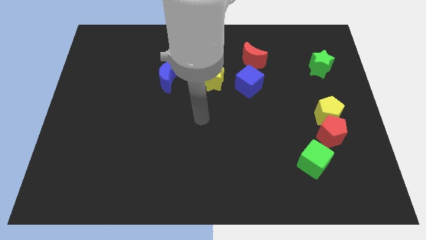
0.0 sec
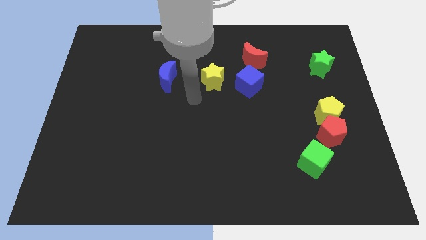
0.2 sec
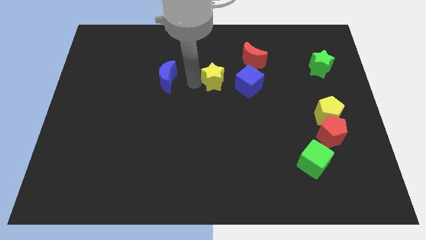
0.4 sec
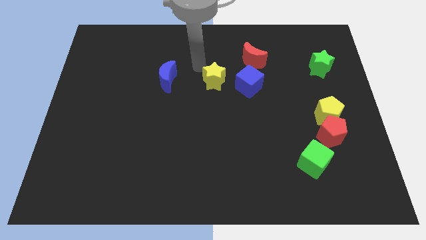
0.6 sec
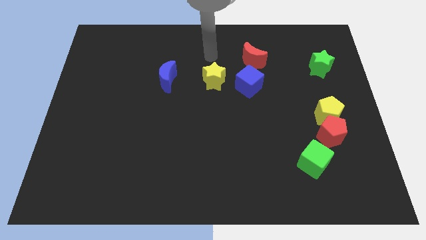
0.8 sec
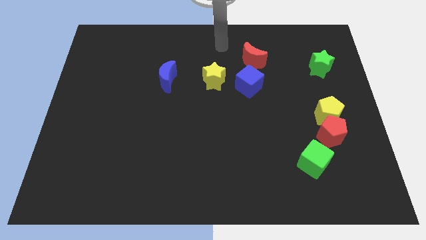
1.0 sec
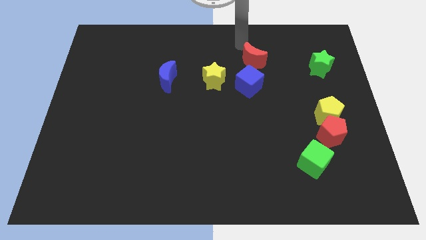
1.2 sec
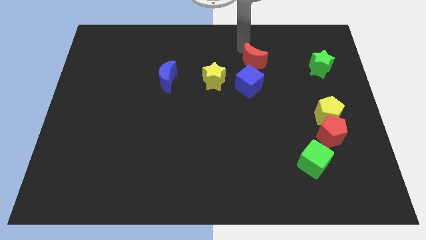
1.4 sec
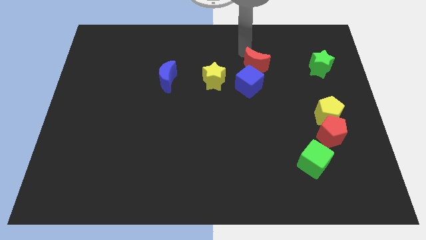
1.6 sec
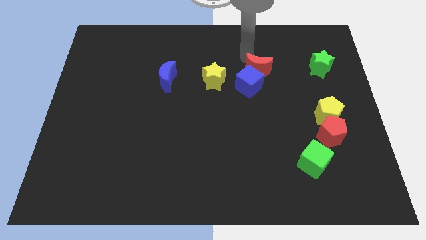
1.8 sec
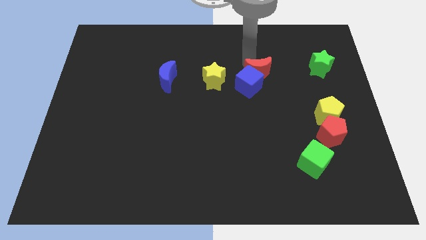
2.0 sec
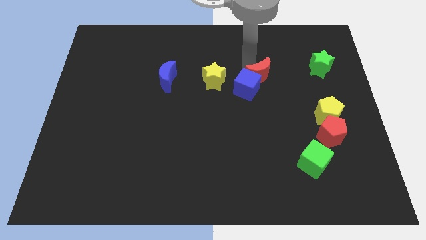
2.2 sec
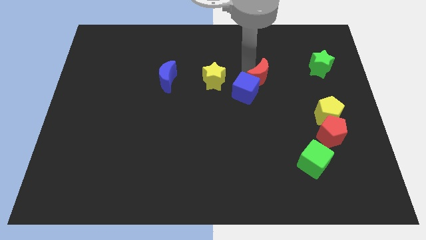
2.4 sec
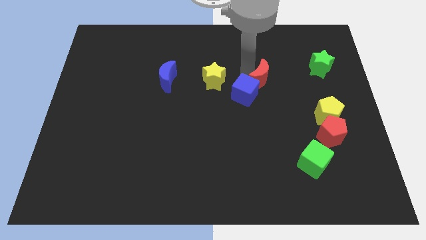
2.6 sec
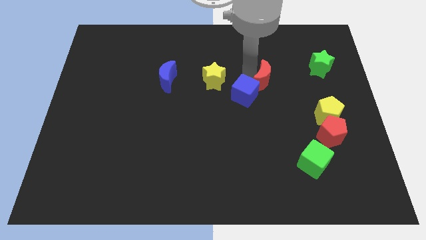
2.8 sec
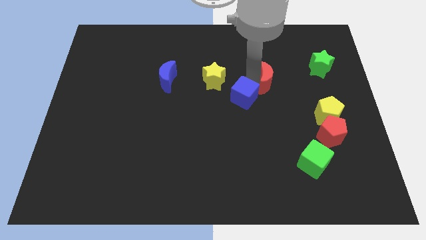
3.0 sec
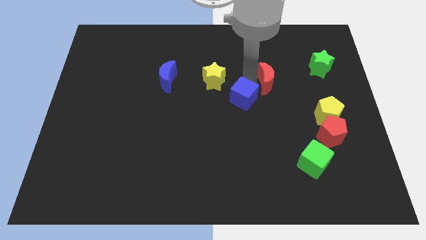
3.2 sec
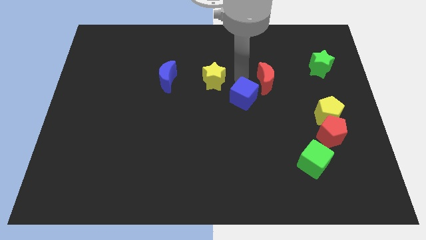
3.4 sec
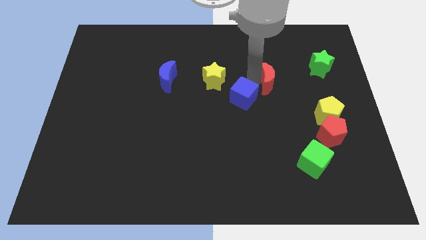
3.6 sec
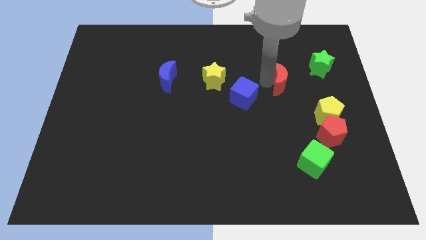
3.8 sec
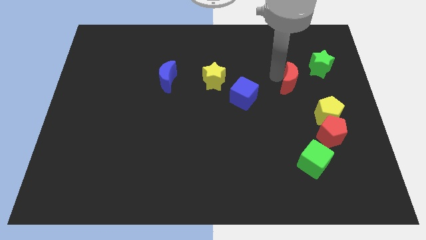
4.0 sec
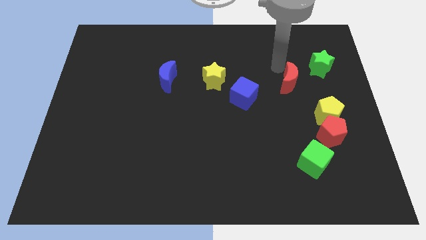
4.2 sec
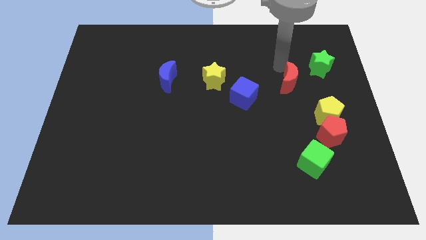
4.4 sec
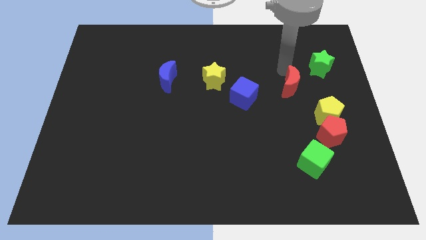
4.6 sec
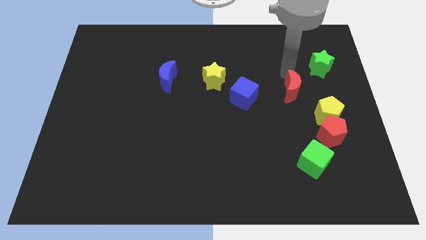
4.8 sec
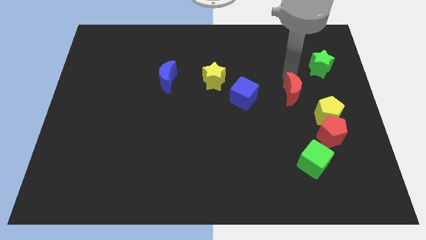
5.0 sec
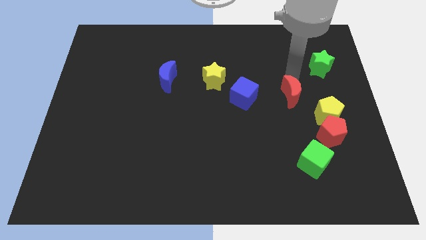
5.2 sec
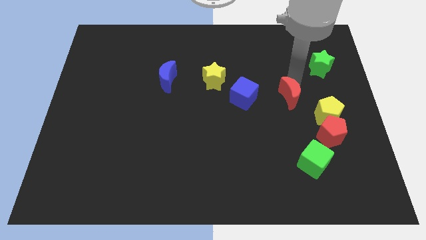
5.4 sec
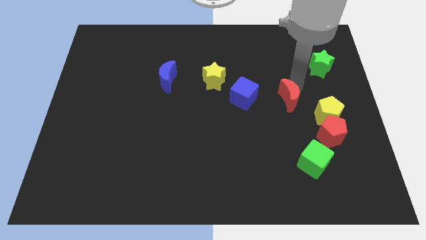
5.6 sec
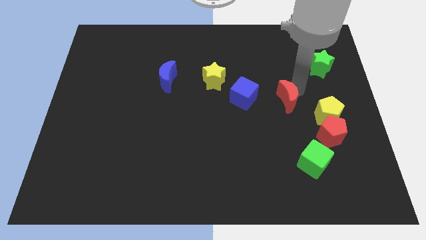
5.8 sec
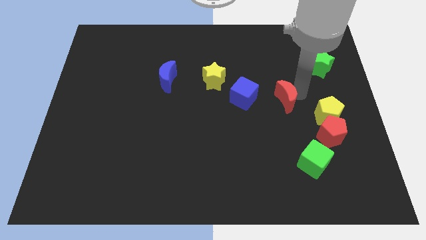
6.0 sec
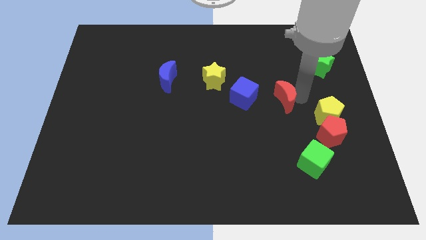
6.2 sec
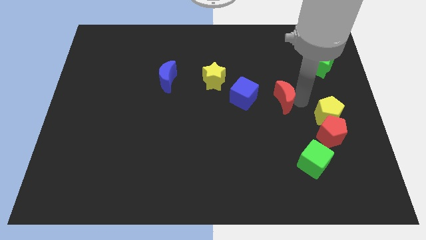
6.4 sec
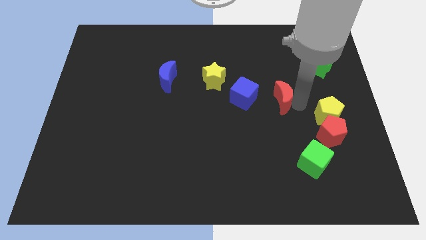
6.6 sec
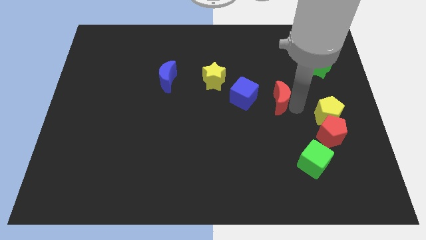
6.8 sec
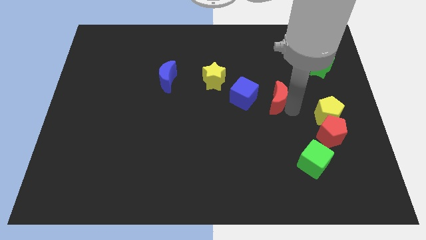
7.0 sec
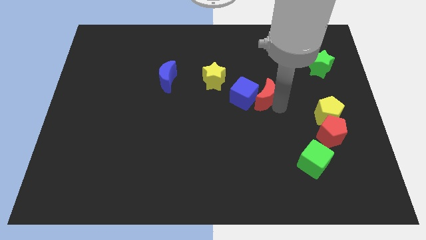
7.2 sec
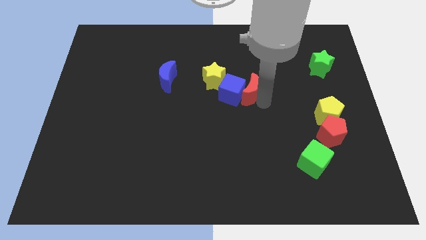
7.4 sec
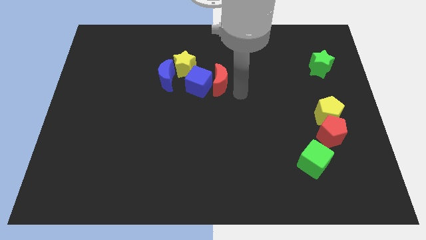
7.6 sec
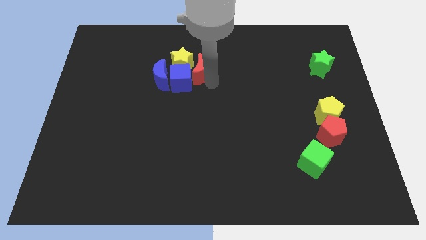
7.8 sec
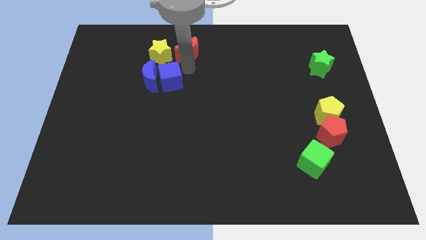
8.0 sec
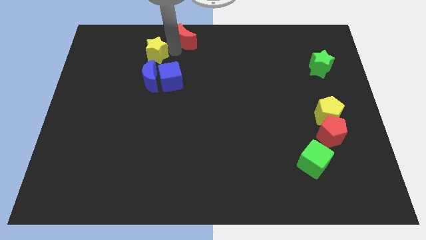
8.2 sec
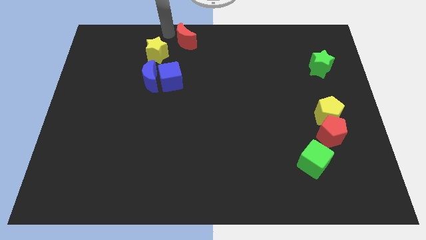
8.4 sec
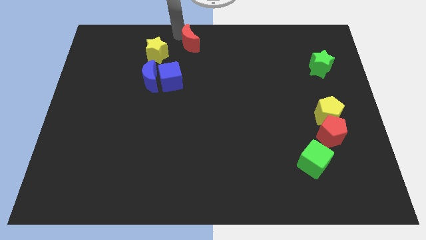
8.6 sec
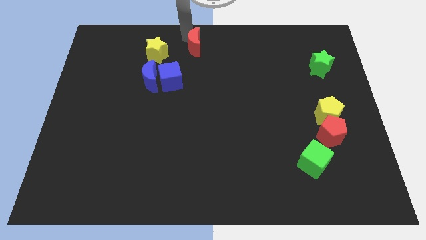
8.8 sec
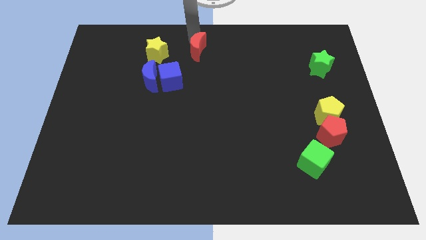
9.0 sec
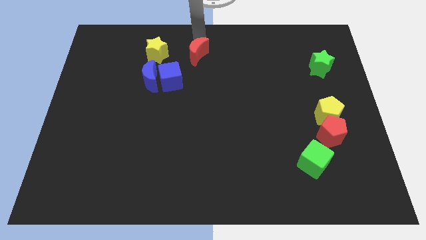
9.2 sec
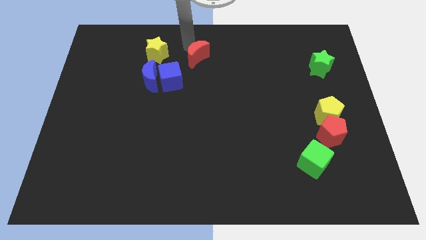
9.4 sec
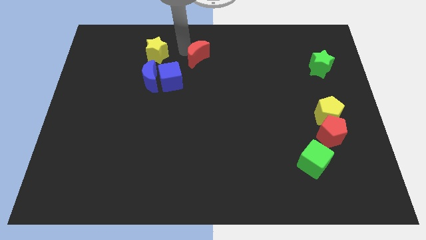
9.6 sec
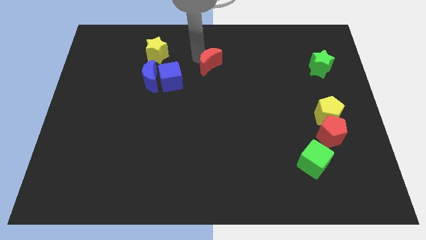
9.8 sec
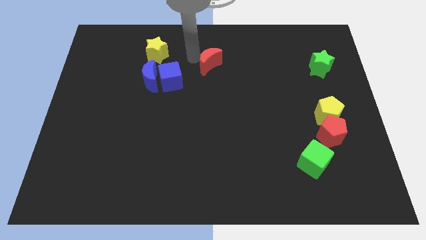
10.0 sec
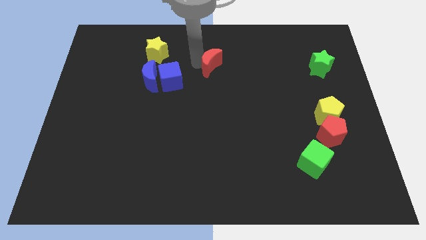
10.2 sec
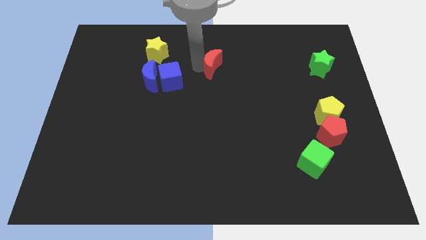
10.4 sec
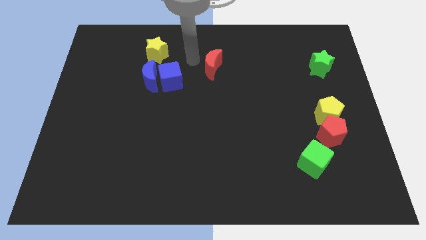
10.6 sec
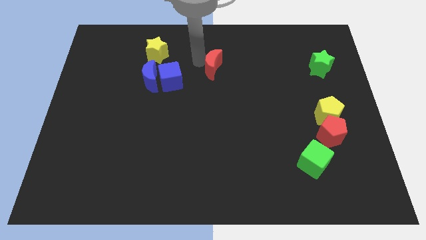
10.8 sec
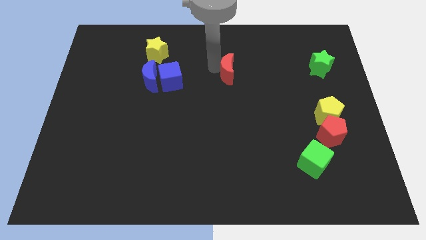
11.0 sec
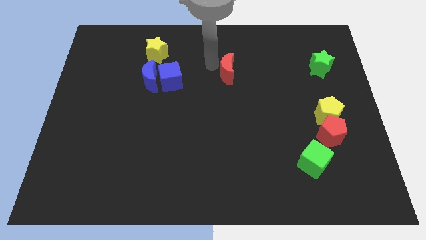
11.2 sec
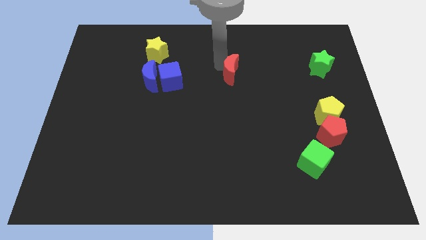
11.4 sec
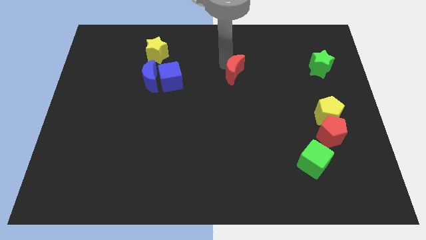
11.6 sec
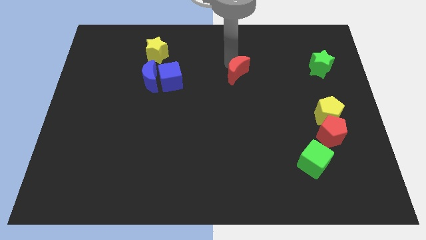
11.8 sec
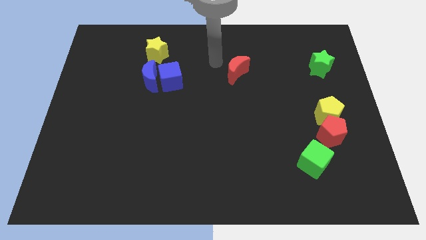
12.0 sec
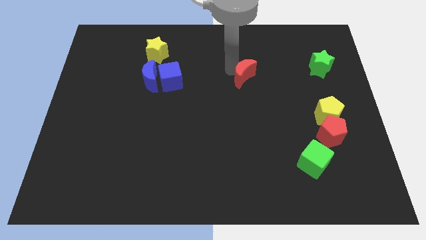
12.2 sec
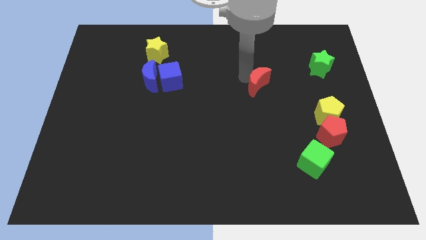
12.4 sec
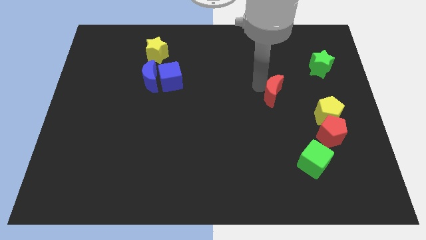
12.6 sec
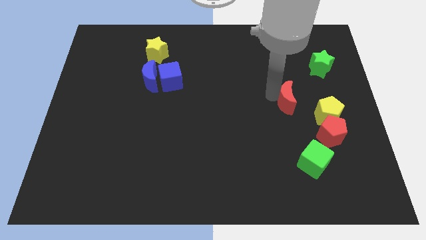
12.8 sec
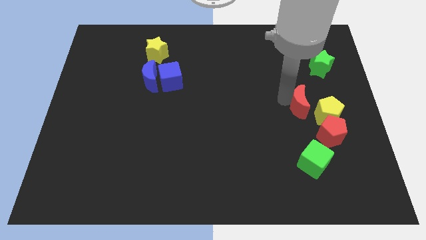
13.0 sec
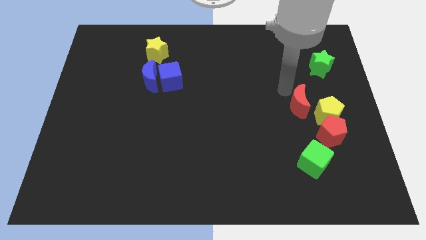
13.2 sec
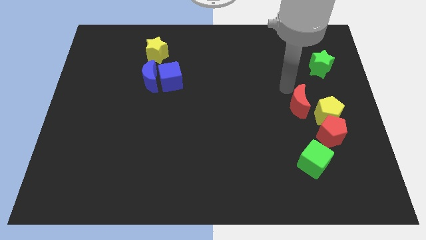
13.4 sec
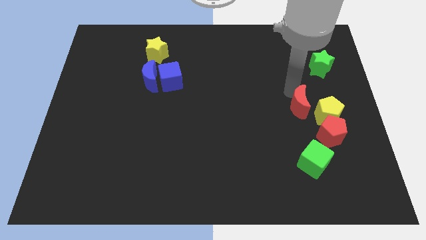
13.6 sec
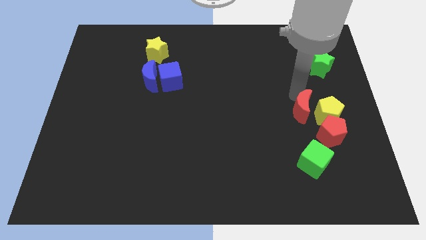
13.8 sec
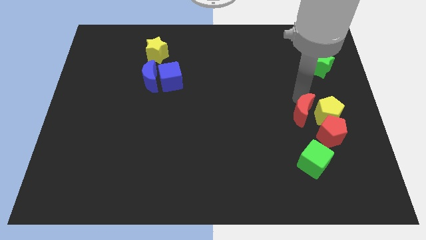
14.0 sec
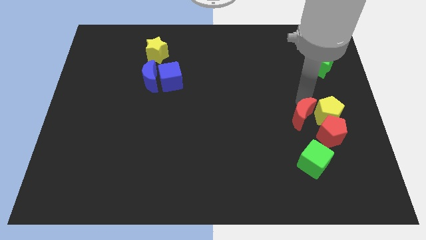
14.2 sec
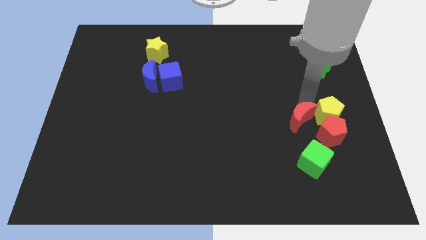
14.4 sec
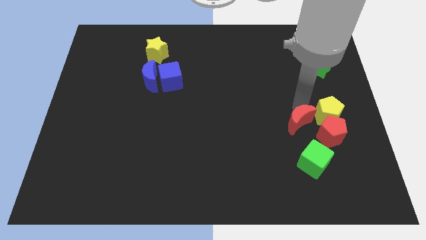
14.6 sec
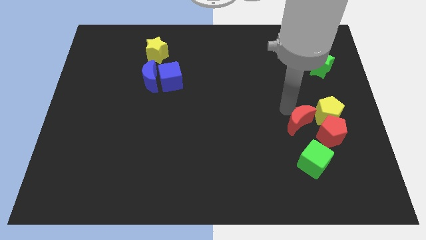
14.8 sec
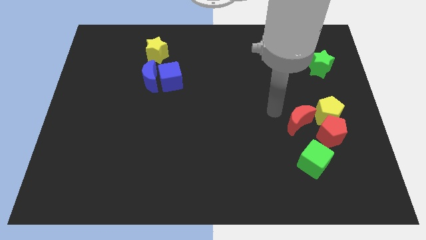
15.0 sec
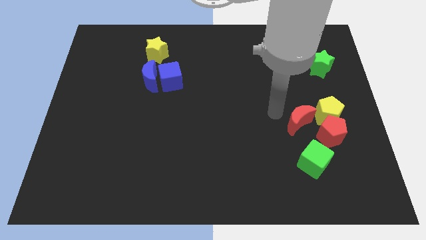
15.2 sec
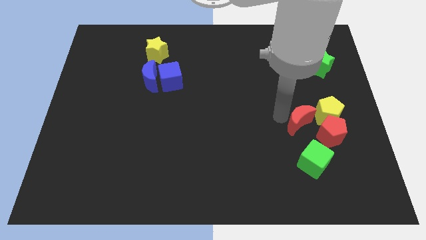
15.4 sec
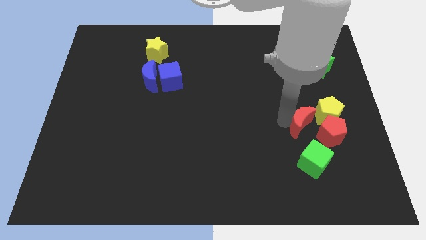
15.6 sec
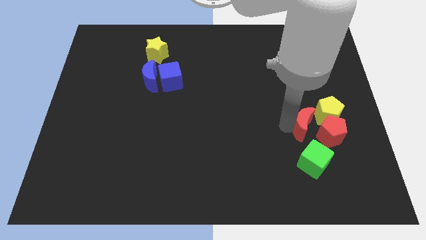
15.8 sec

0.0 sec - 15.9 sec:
slide the red moon close to the red pentagon
